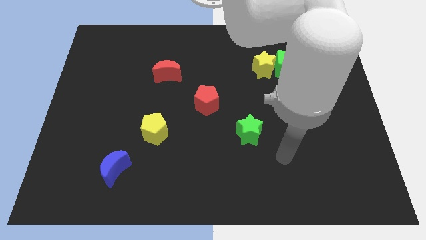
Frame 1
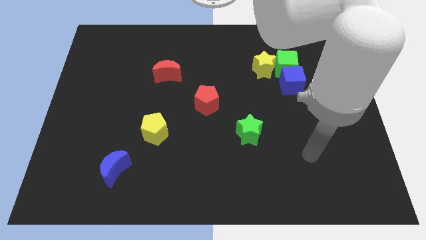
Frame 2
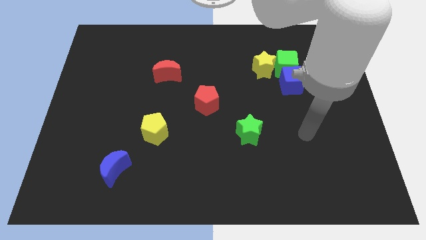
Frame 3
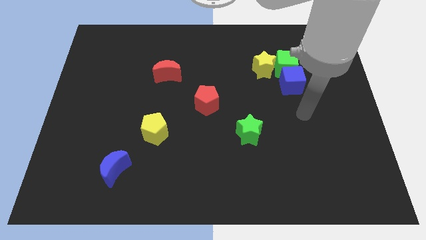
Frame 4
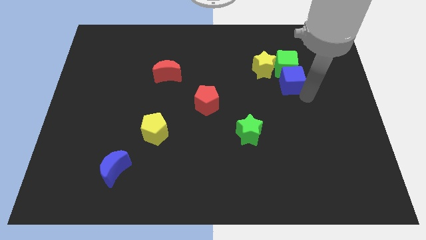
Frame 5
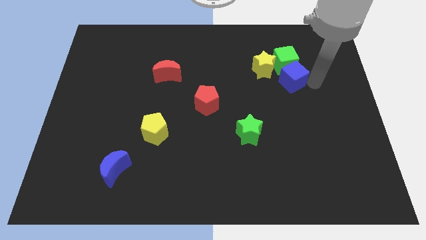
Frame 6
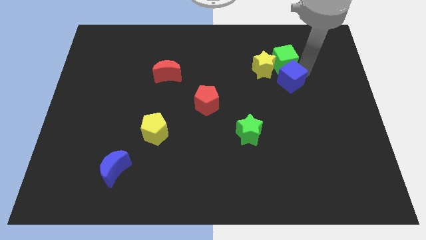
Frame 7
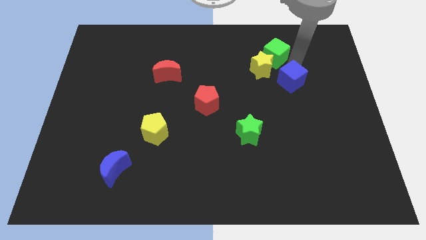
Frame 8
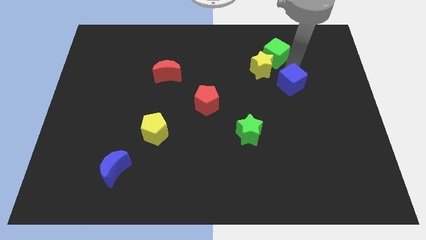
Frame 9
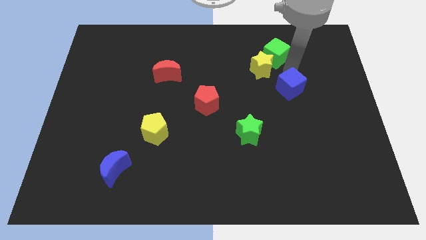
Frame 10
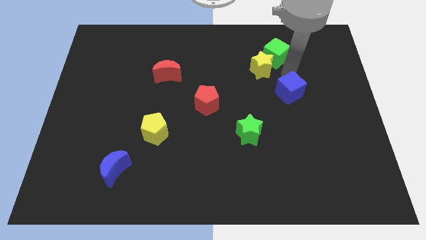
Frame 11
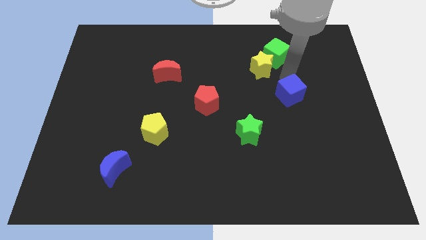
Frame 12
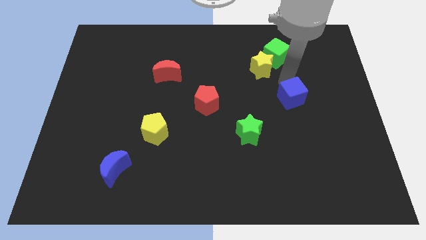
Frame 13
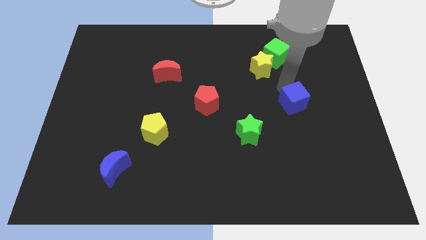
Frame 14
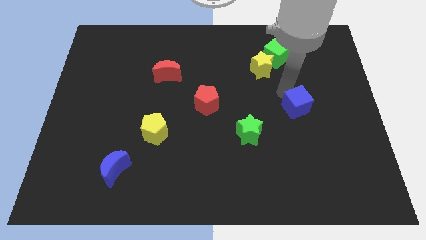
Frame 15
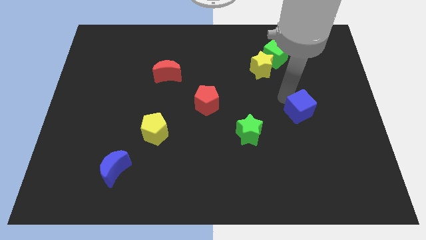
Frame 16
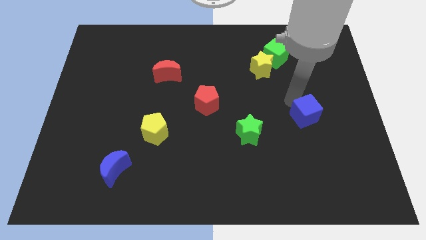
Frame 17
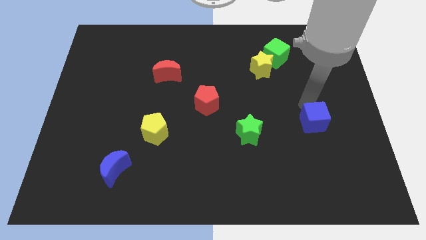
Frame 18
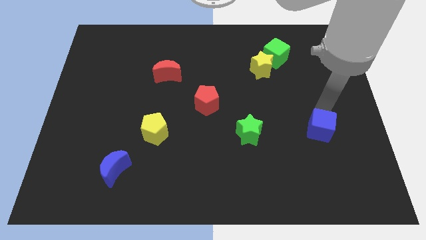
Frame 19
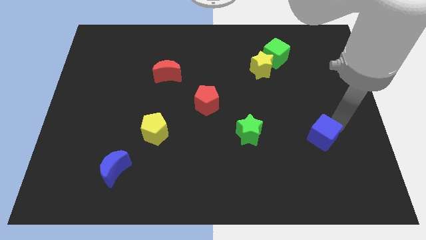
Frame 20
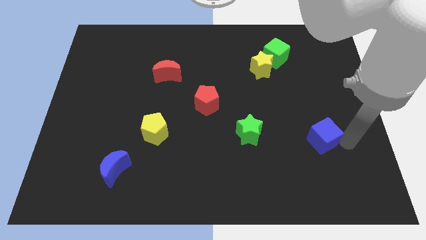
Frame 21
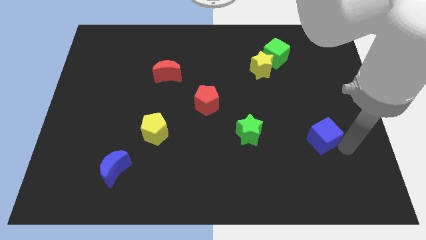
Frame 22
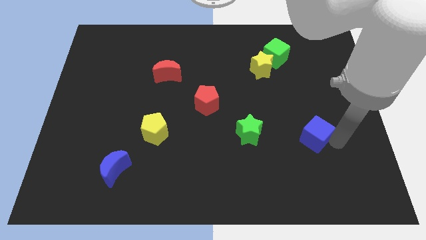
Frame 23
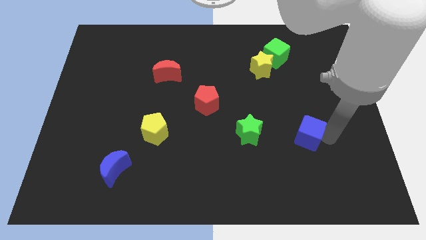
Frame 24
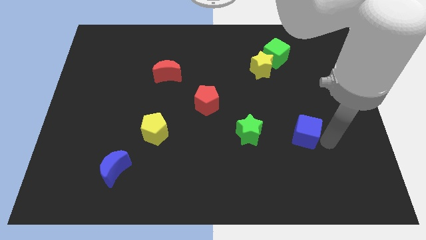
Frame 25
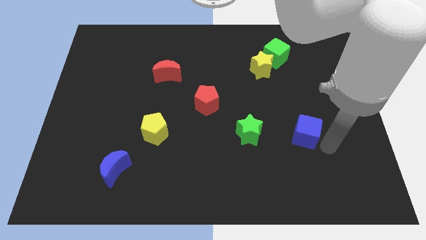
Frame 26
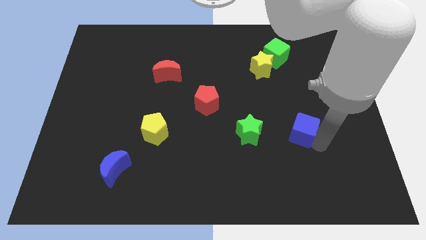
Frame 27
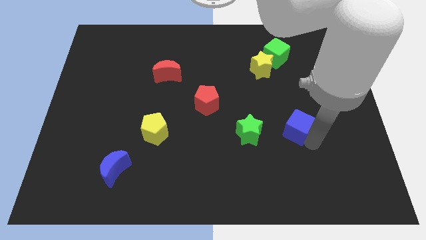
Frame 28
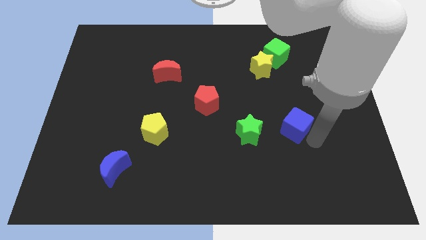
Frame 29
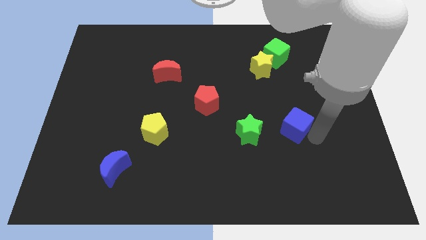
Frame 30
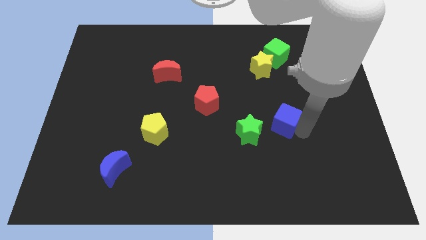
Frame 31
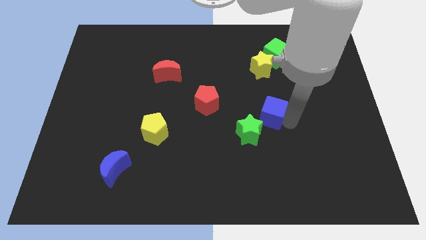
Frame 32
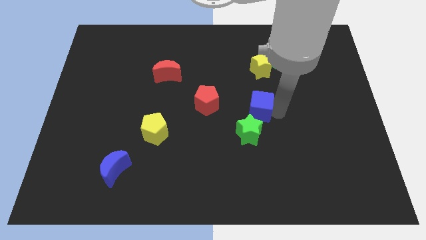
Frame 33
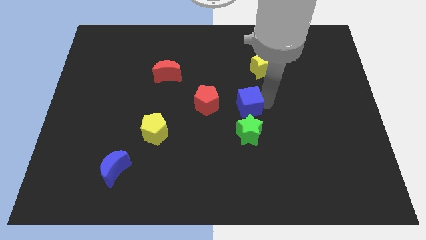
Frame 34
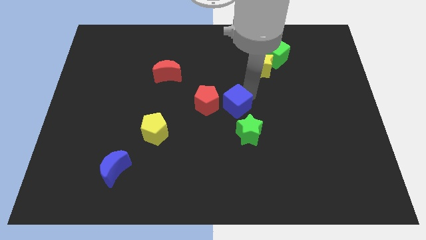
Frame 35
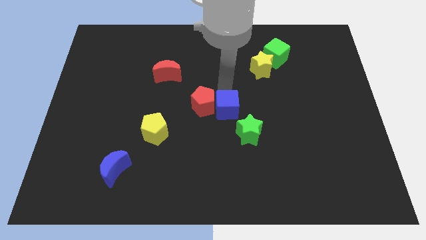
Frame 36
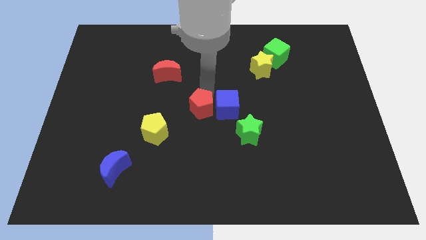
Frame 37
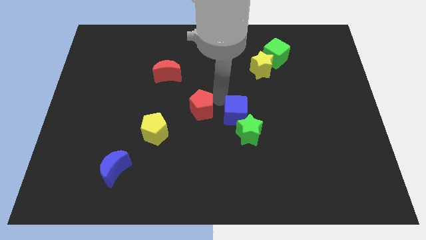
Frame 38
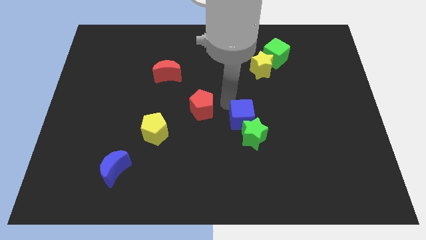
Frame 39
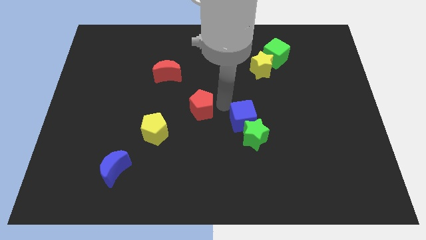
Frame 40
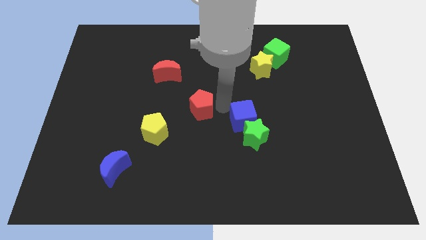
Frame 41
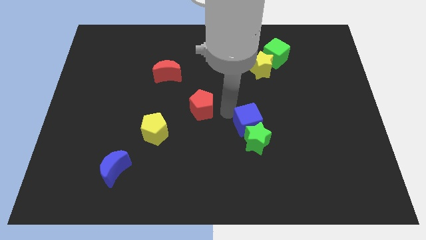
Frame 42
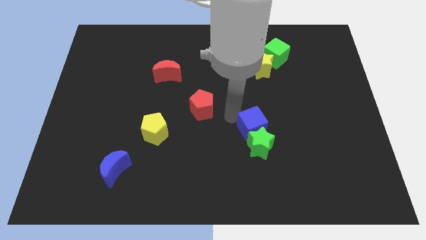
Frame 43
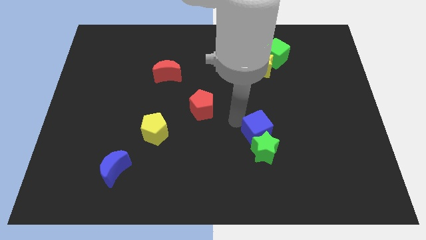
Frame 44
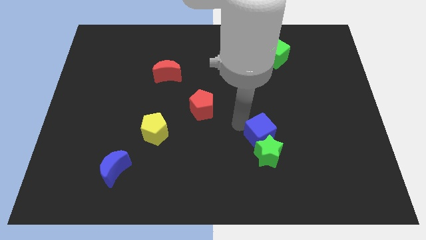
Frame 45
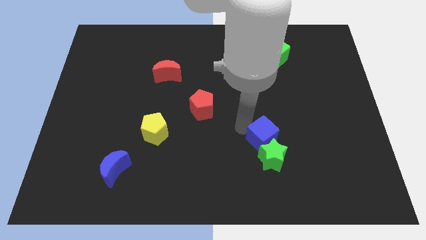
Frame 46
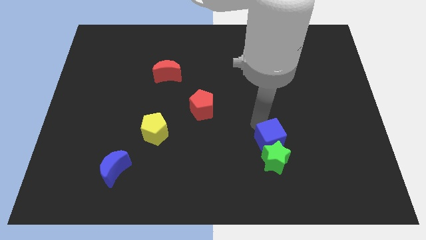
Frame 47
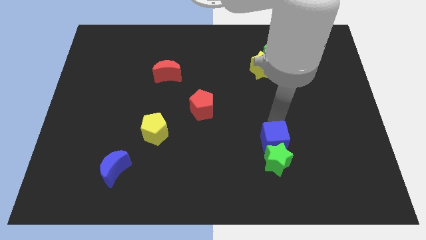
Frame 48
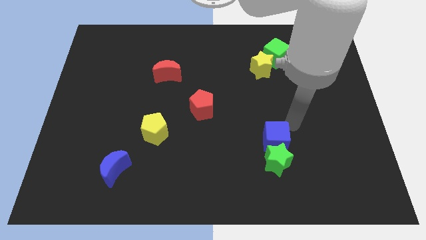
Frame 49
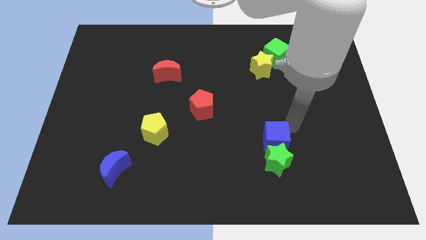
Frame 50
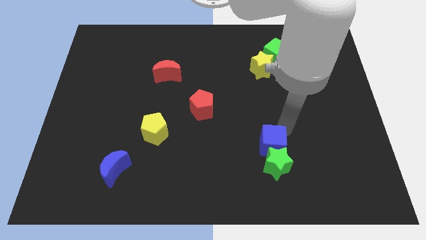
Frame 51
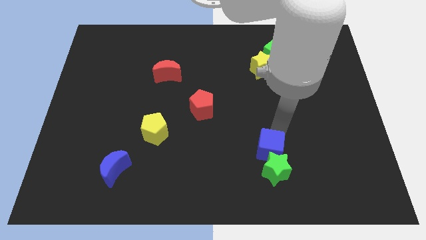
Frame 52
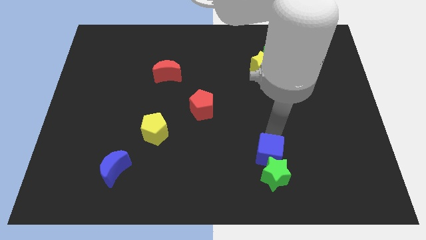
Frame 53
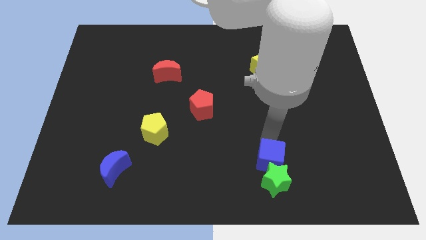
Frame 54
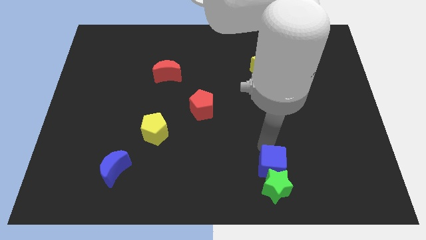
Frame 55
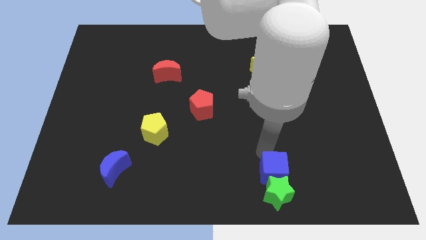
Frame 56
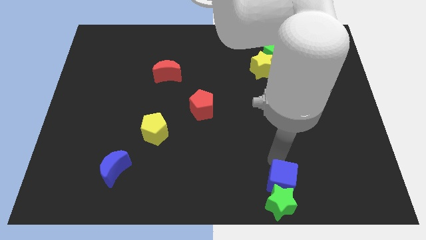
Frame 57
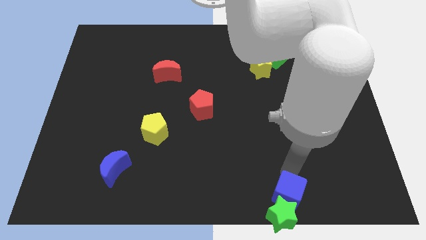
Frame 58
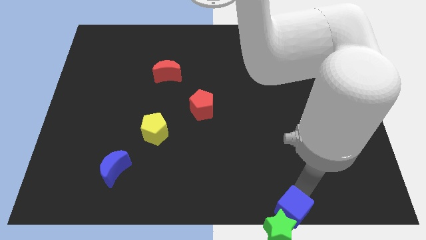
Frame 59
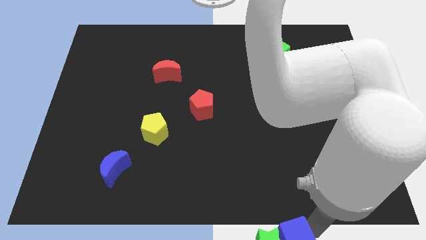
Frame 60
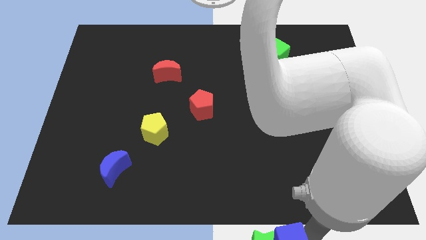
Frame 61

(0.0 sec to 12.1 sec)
push the blue cube to the bottom
